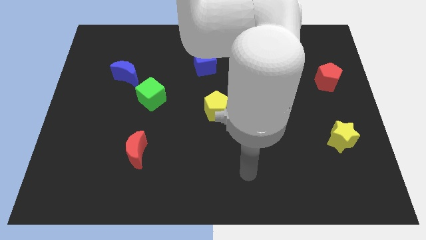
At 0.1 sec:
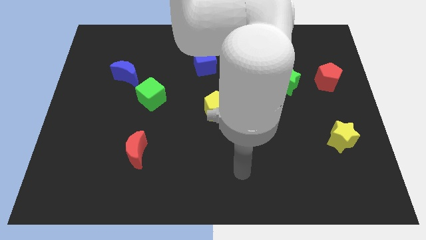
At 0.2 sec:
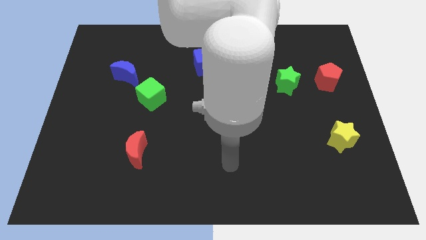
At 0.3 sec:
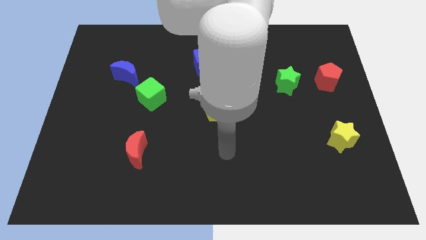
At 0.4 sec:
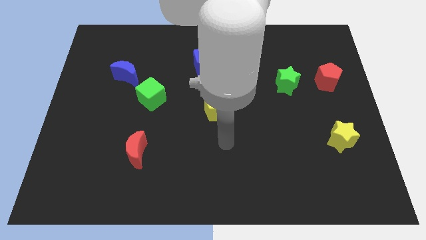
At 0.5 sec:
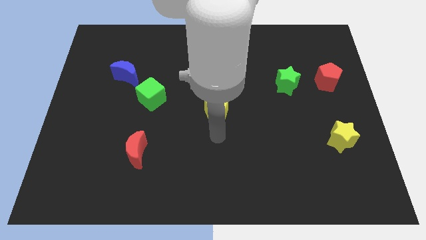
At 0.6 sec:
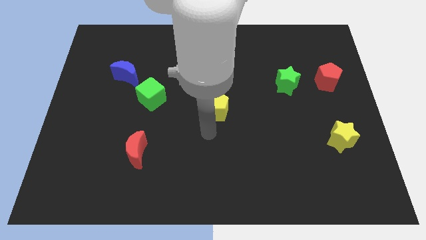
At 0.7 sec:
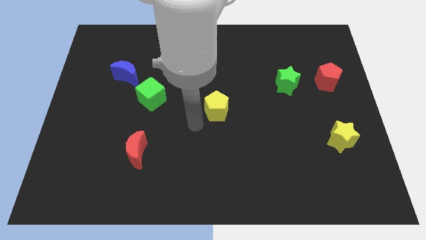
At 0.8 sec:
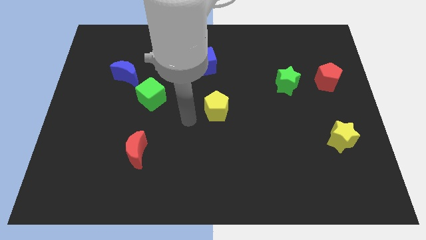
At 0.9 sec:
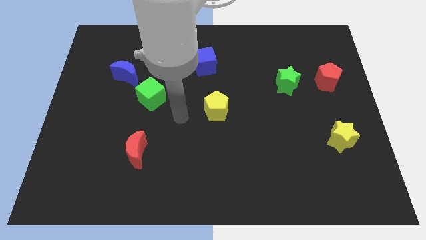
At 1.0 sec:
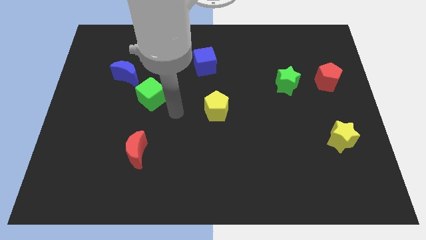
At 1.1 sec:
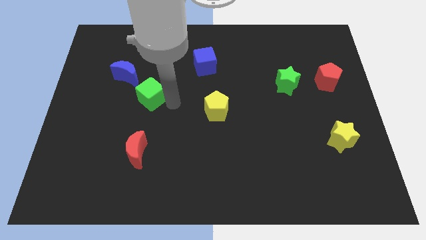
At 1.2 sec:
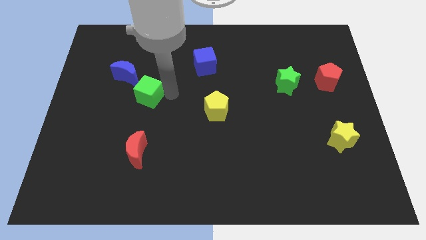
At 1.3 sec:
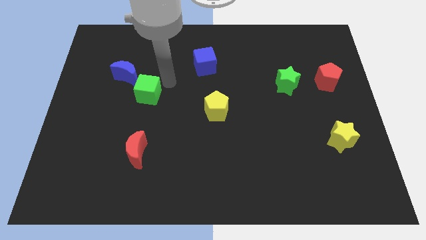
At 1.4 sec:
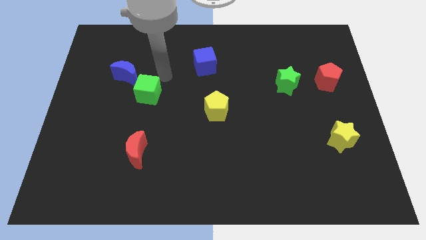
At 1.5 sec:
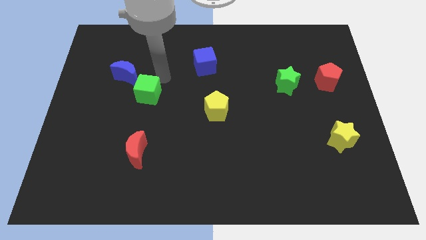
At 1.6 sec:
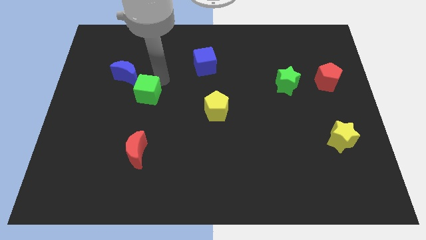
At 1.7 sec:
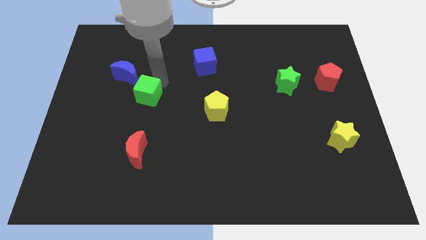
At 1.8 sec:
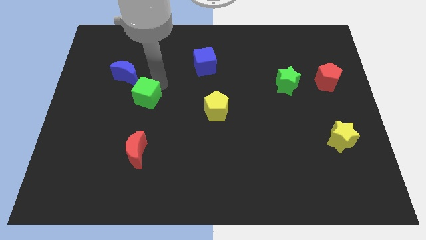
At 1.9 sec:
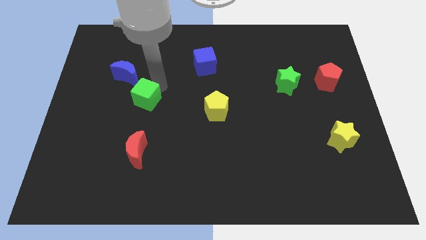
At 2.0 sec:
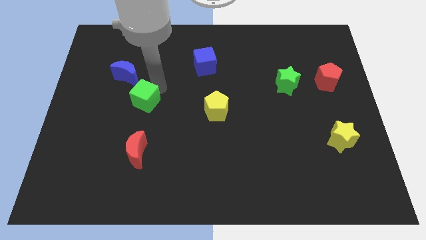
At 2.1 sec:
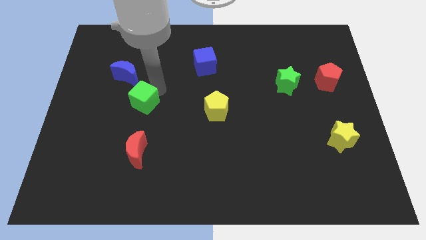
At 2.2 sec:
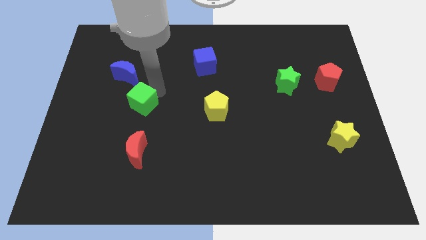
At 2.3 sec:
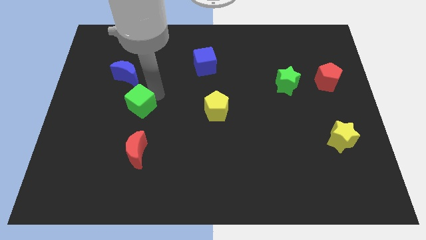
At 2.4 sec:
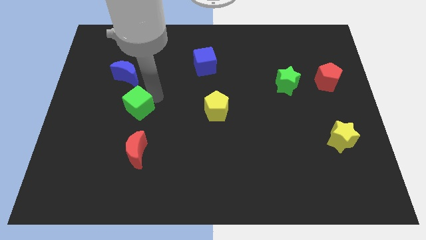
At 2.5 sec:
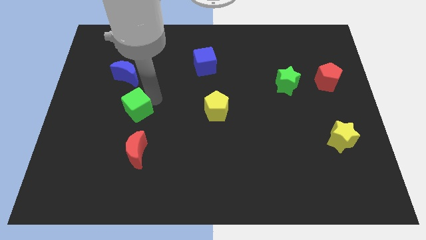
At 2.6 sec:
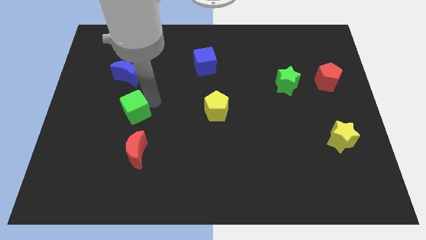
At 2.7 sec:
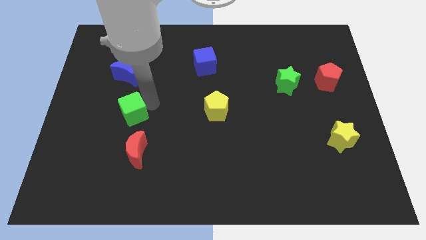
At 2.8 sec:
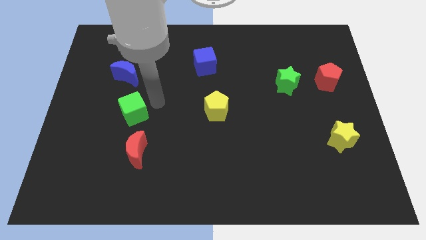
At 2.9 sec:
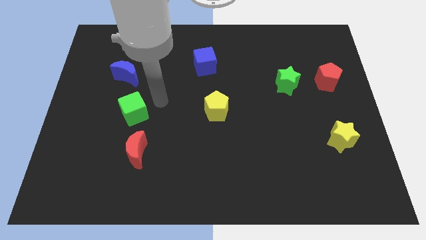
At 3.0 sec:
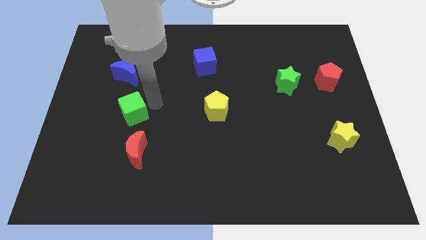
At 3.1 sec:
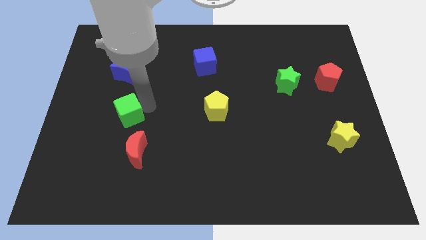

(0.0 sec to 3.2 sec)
slide the green cube a little down and left diagonally

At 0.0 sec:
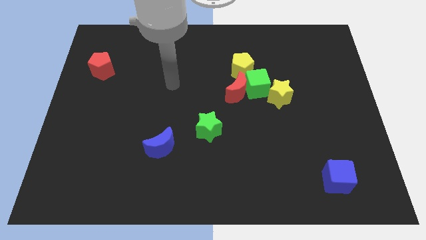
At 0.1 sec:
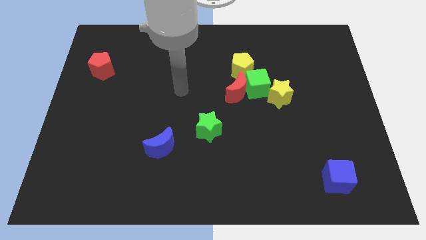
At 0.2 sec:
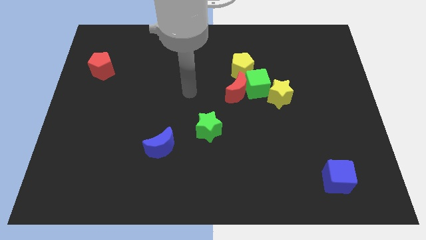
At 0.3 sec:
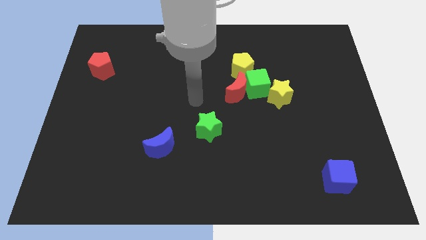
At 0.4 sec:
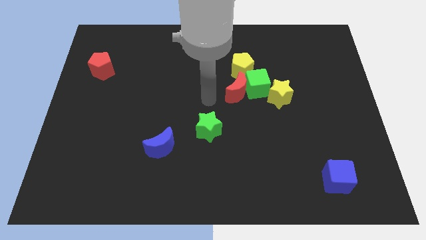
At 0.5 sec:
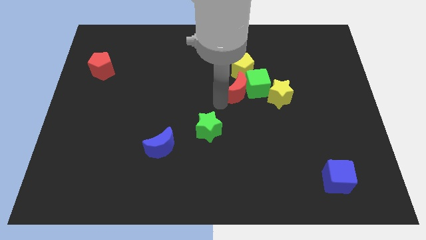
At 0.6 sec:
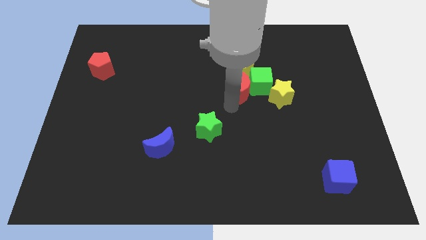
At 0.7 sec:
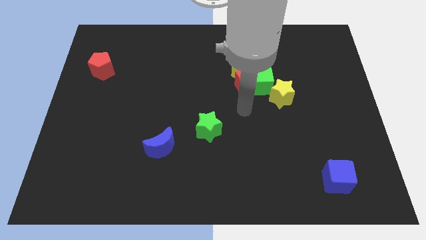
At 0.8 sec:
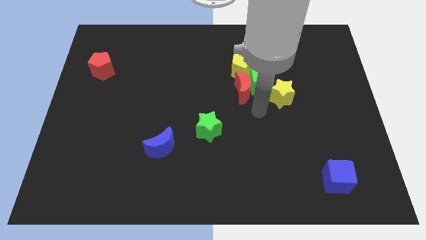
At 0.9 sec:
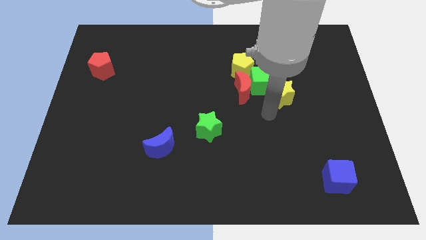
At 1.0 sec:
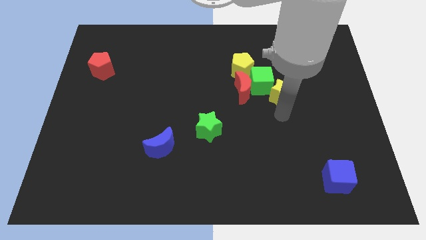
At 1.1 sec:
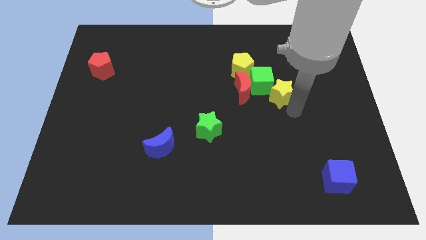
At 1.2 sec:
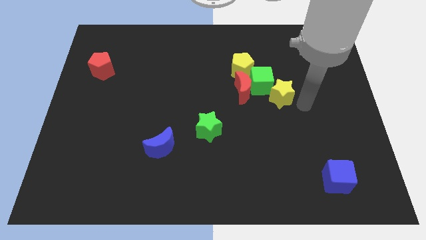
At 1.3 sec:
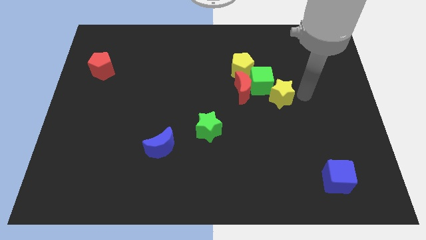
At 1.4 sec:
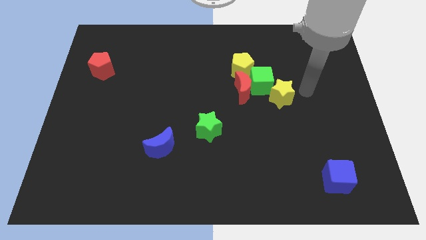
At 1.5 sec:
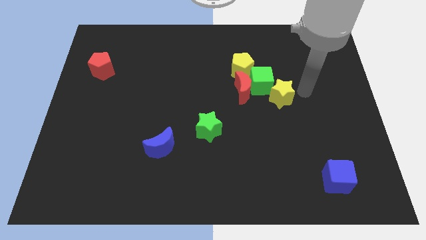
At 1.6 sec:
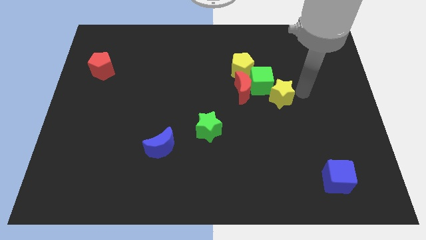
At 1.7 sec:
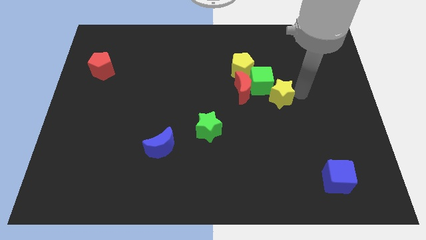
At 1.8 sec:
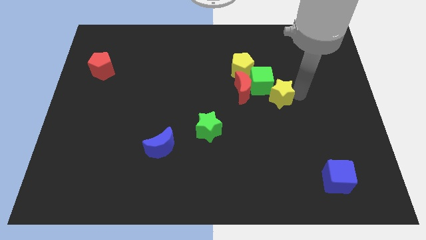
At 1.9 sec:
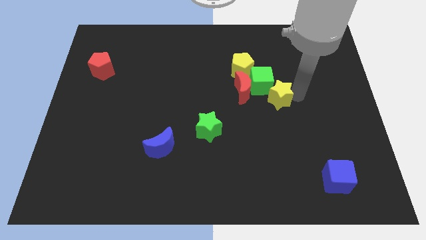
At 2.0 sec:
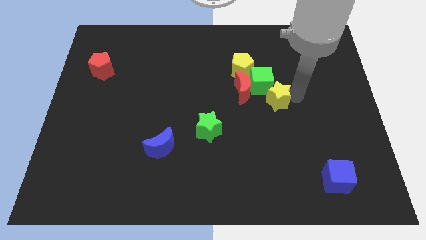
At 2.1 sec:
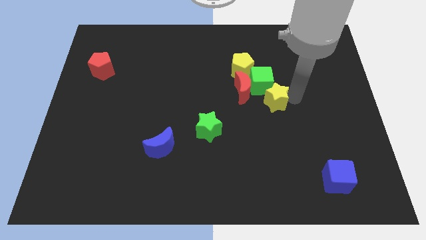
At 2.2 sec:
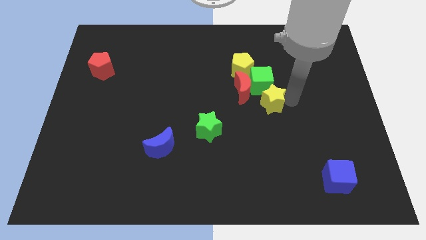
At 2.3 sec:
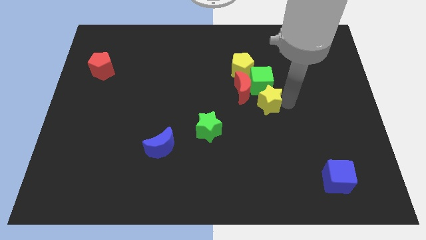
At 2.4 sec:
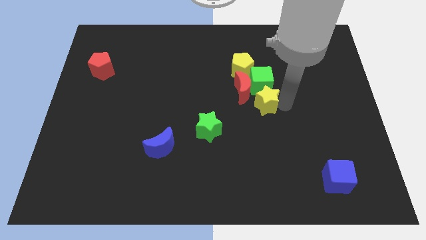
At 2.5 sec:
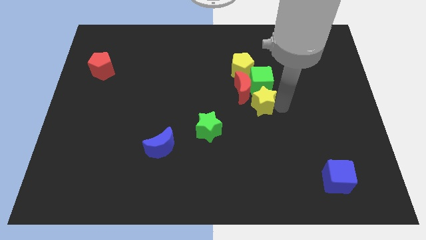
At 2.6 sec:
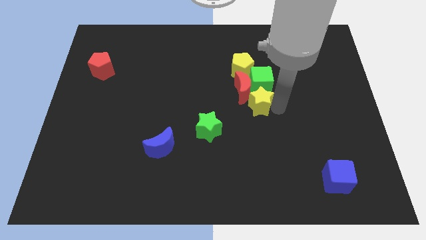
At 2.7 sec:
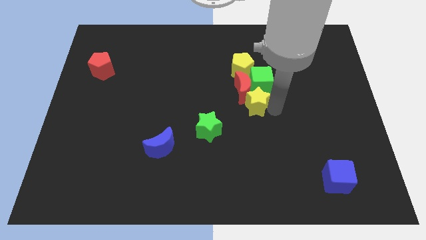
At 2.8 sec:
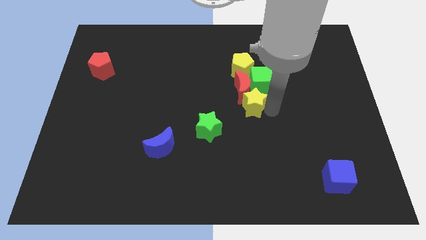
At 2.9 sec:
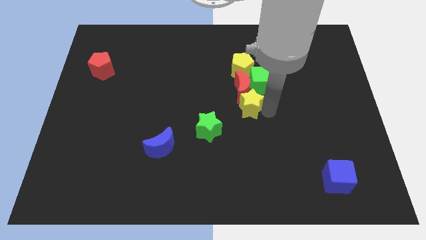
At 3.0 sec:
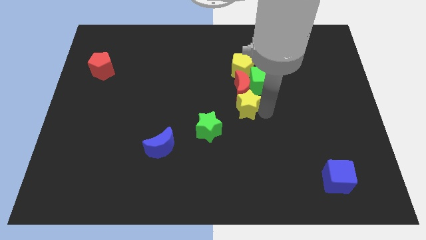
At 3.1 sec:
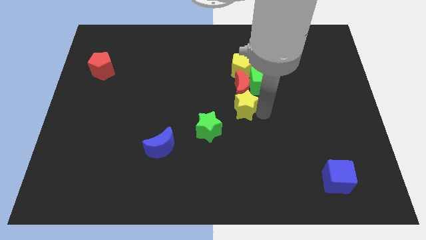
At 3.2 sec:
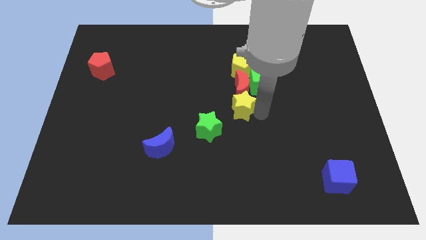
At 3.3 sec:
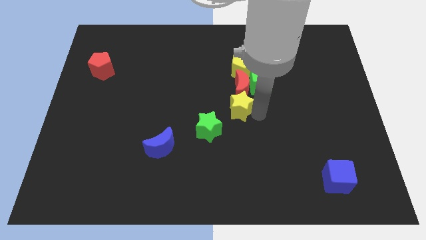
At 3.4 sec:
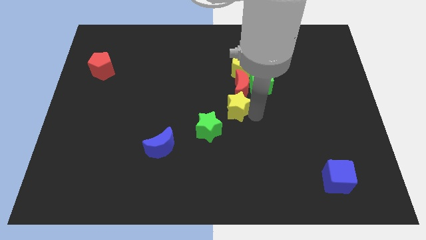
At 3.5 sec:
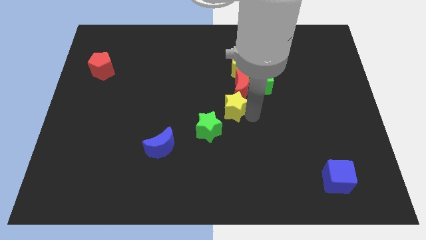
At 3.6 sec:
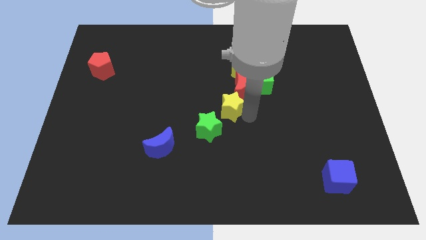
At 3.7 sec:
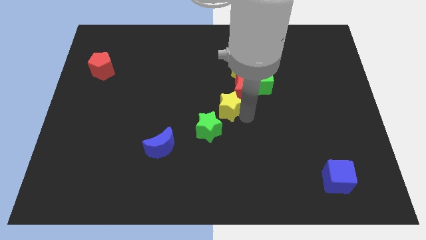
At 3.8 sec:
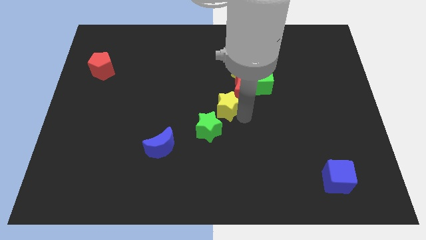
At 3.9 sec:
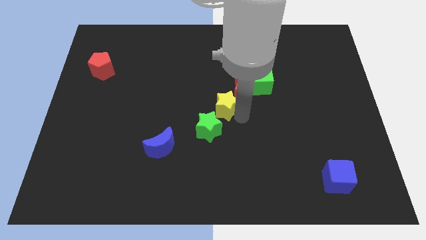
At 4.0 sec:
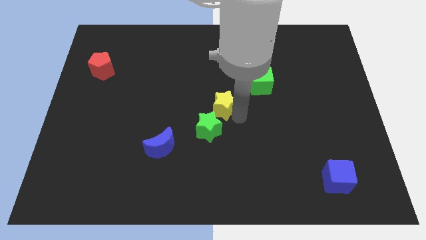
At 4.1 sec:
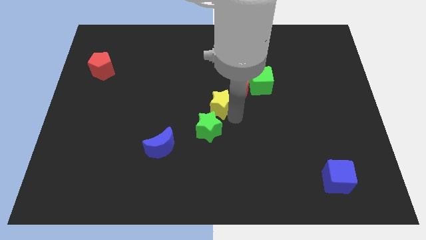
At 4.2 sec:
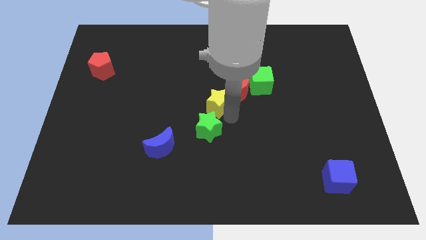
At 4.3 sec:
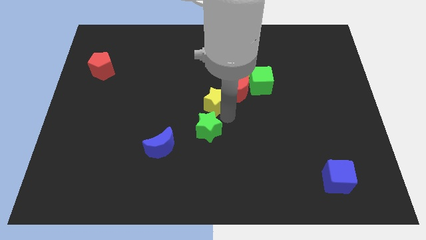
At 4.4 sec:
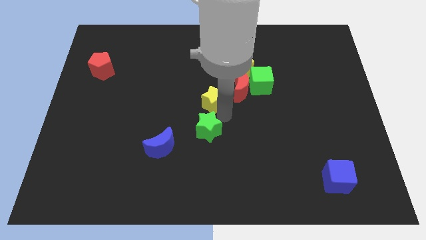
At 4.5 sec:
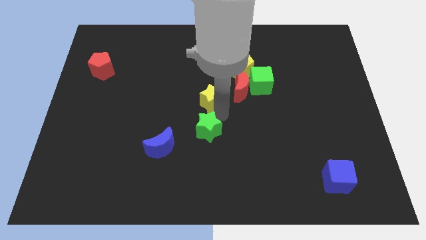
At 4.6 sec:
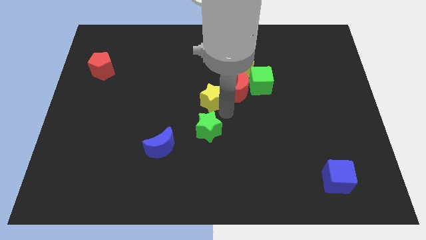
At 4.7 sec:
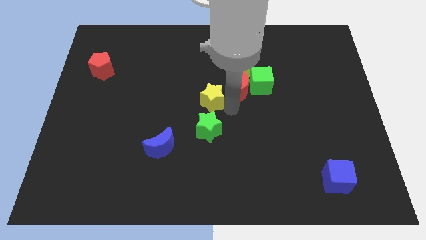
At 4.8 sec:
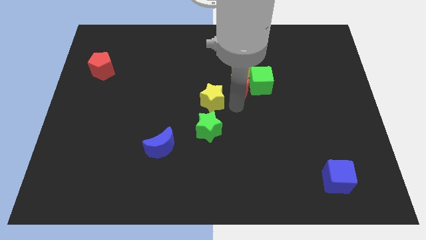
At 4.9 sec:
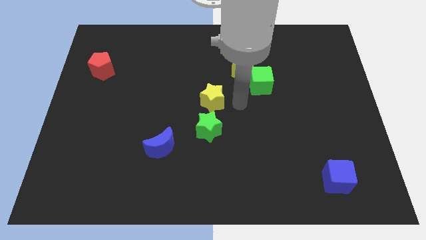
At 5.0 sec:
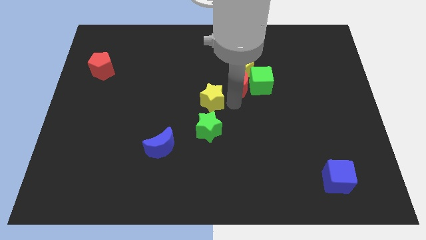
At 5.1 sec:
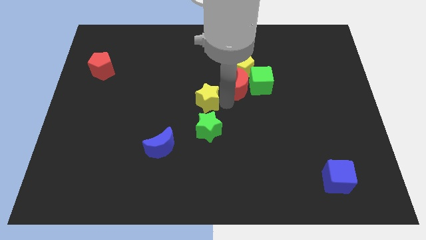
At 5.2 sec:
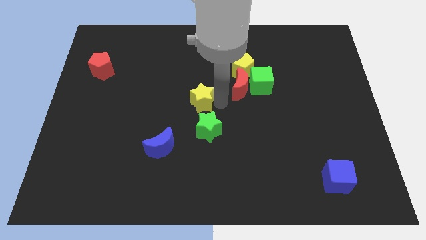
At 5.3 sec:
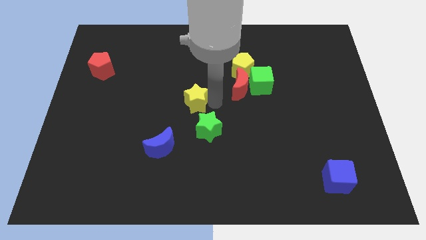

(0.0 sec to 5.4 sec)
slide the yellow star left
